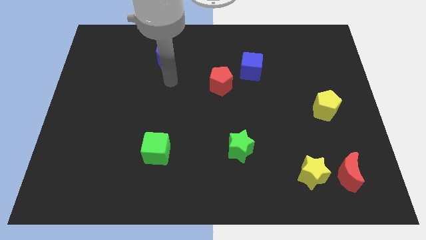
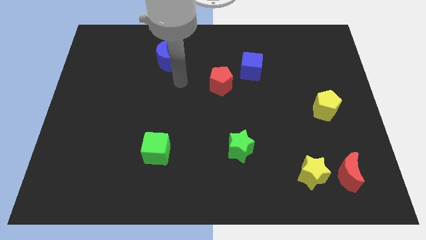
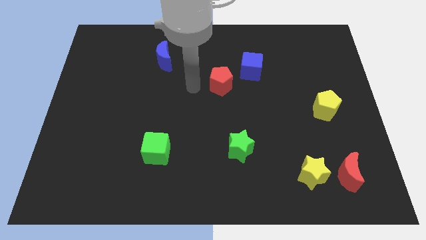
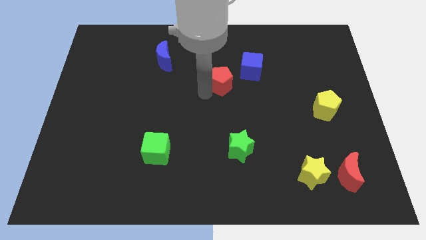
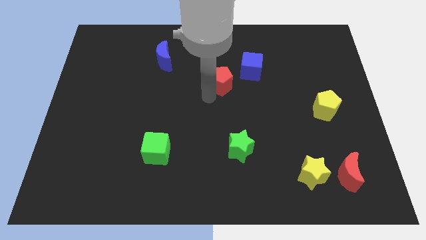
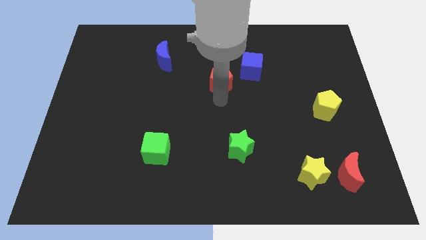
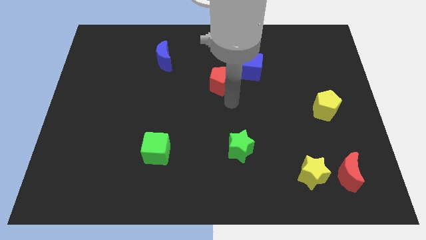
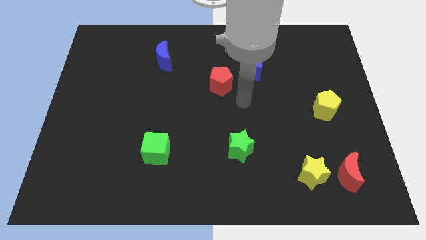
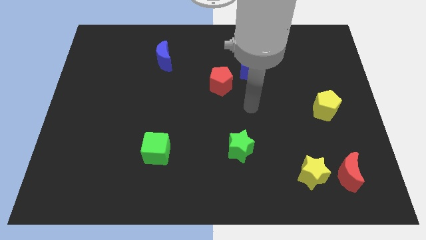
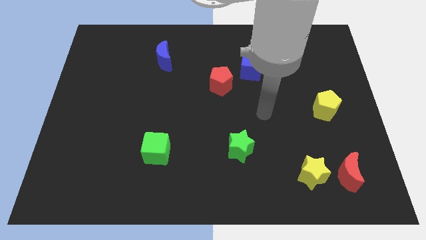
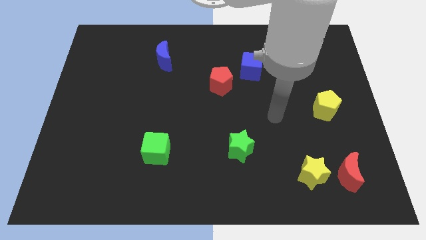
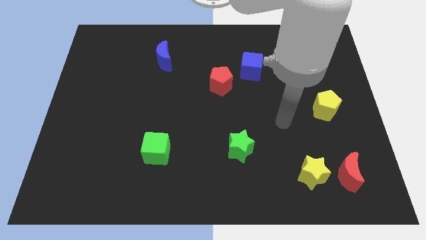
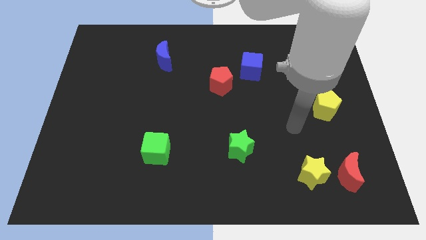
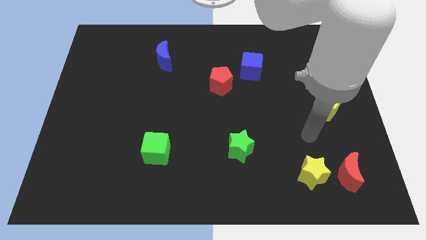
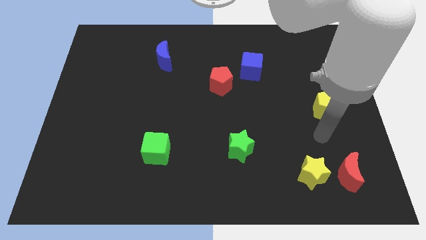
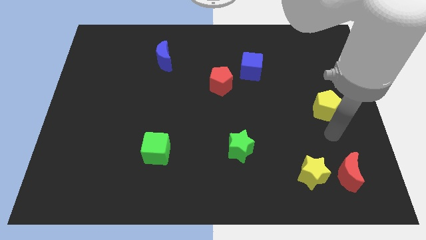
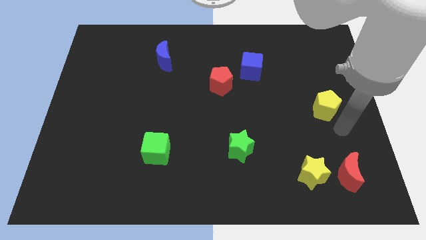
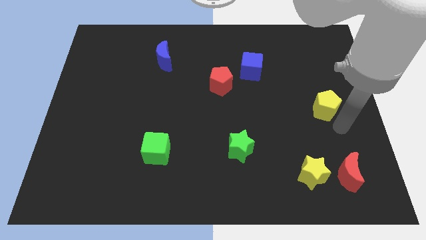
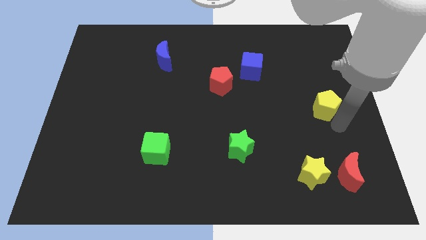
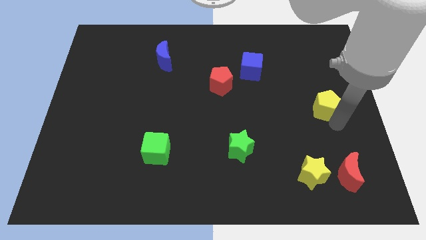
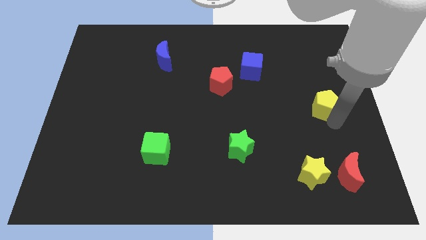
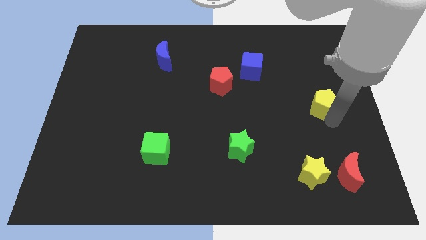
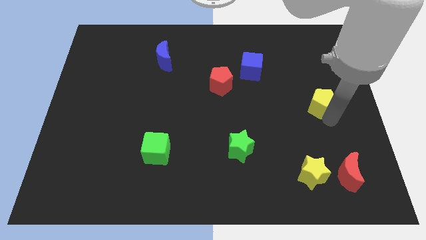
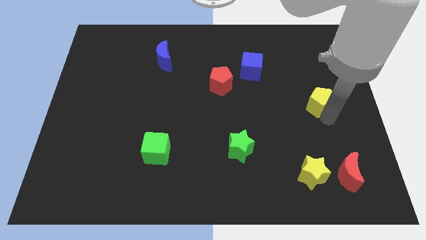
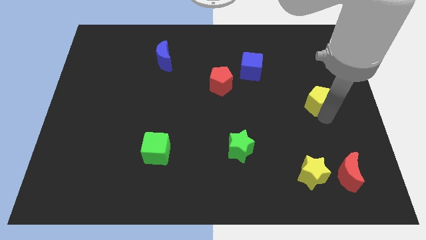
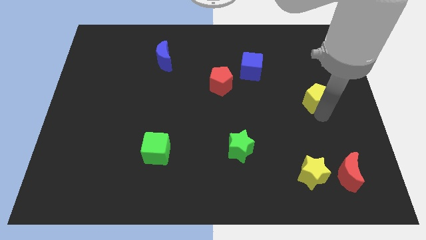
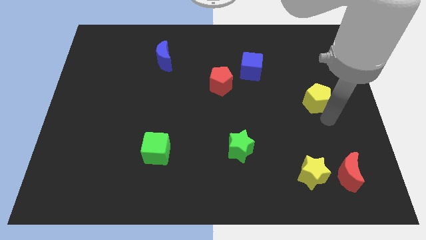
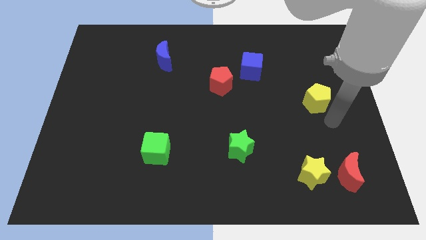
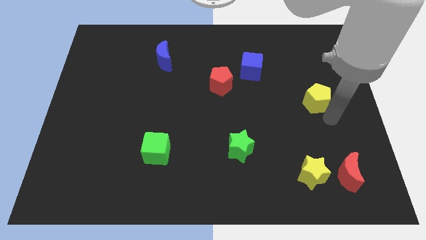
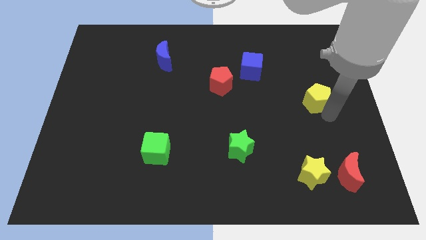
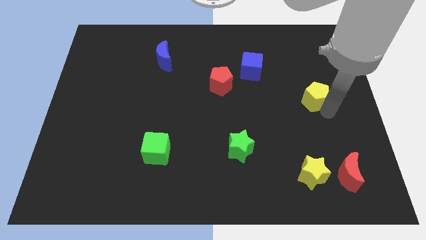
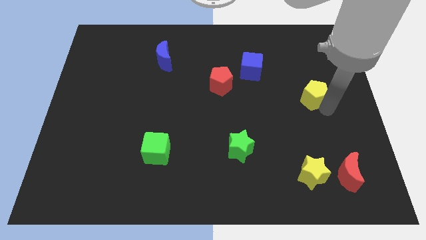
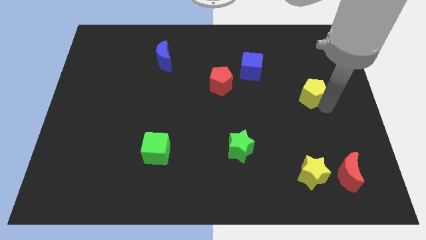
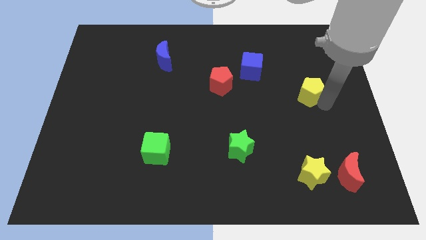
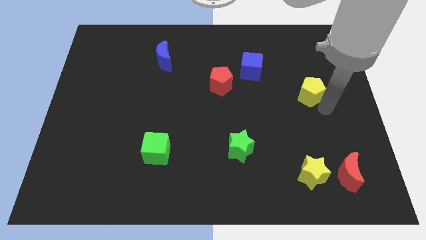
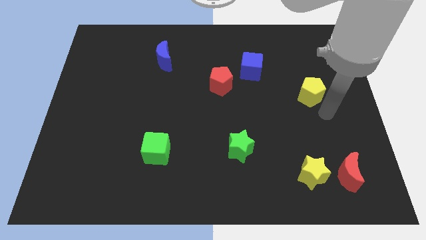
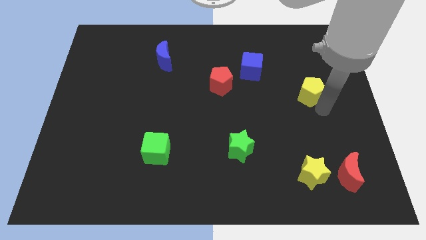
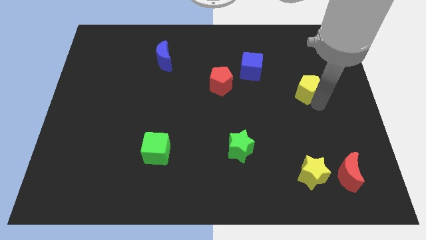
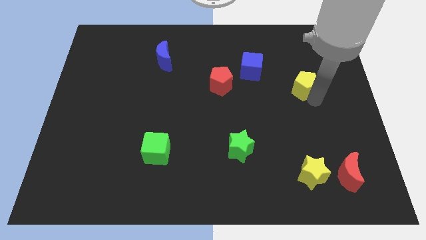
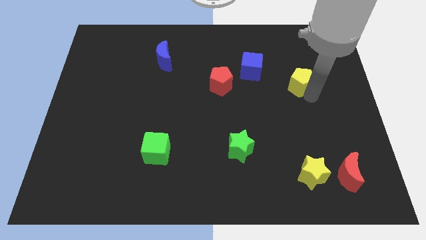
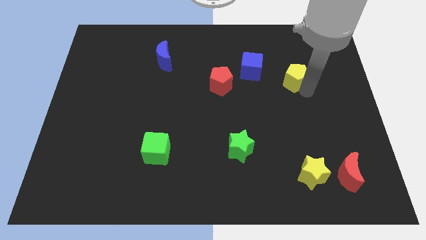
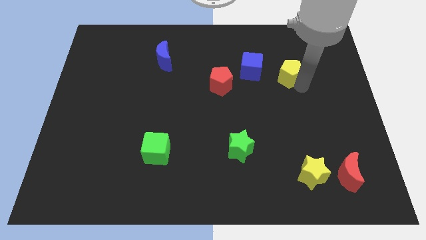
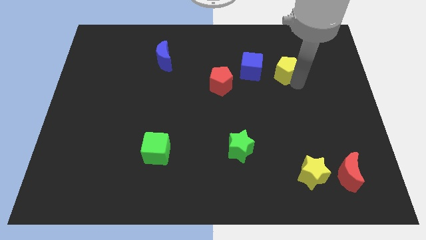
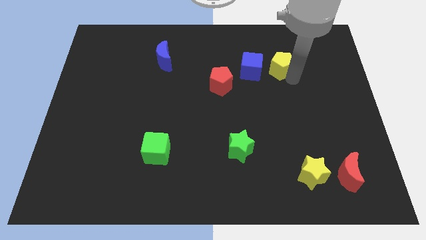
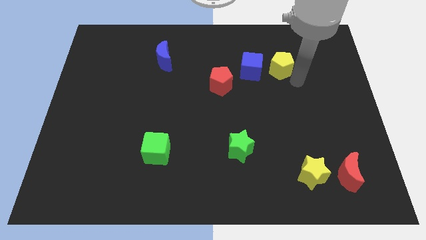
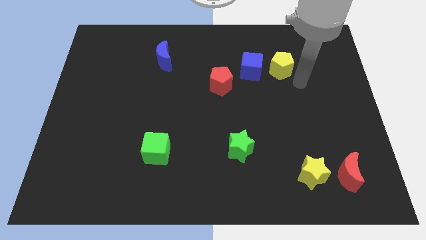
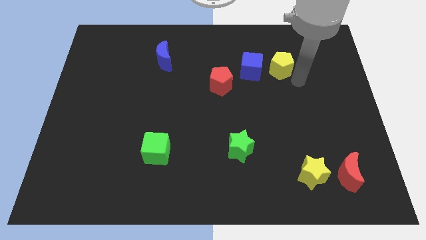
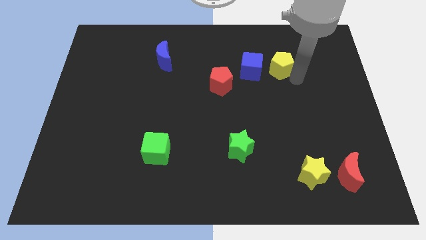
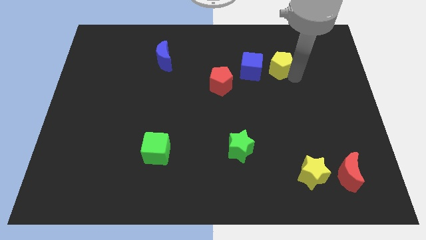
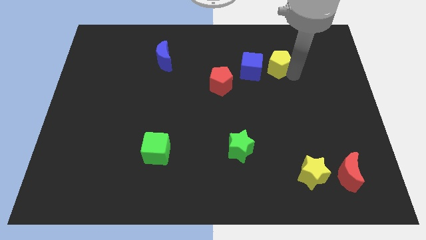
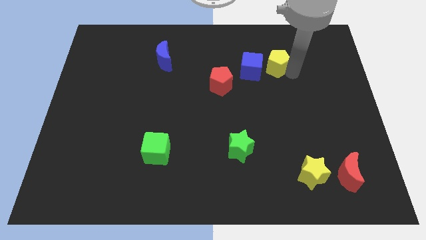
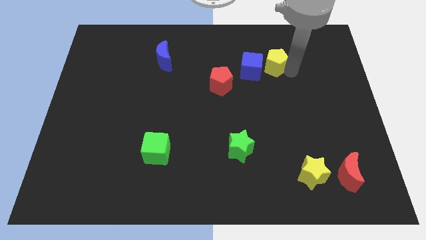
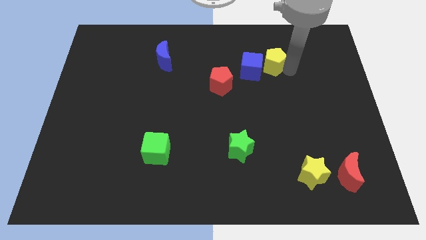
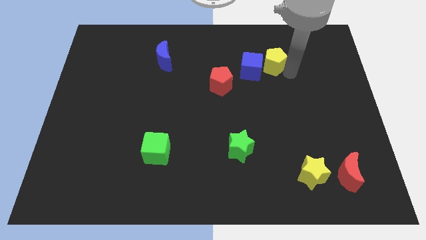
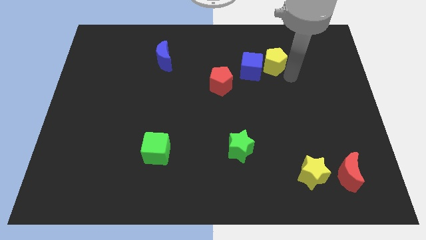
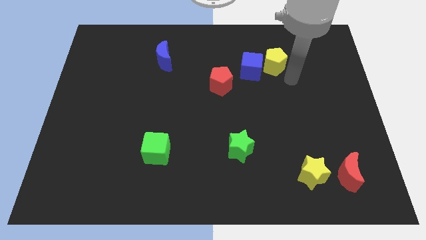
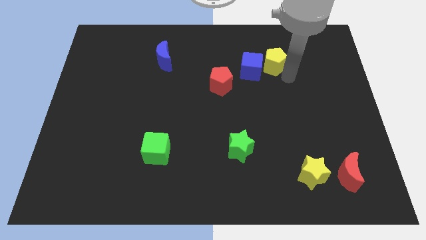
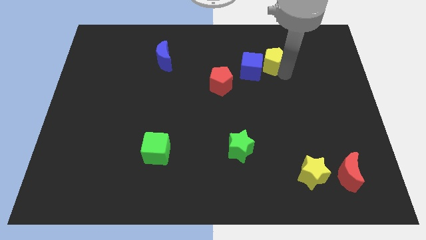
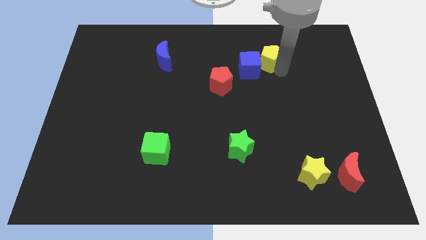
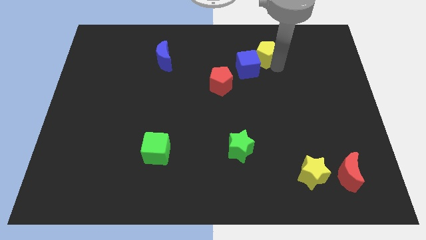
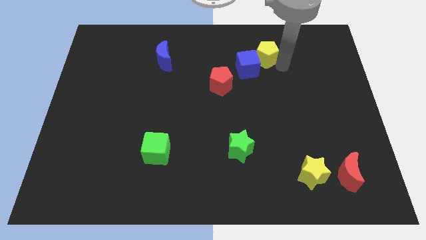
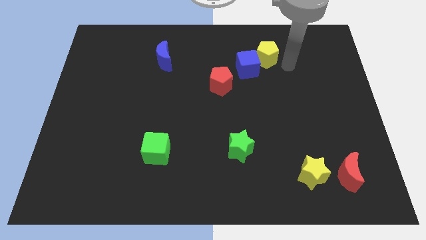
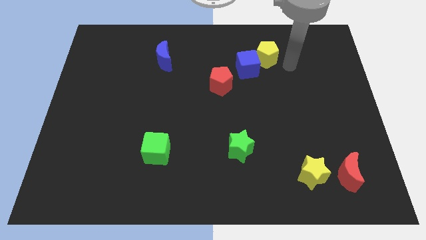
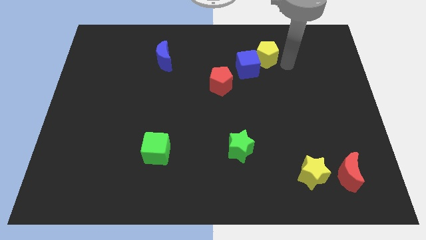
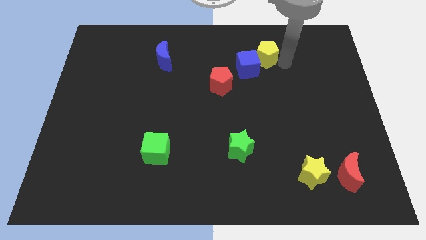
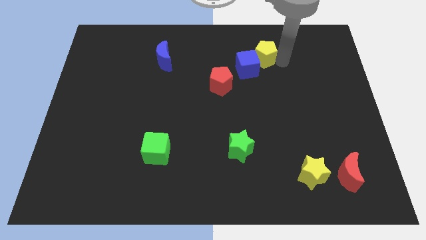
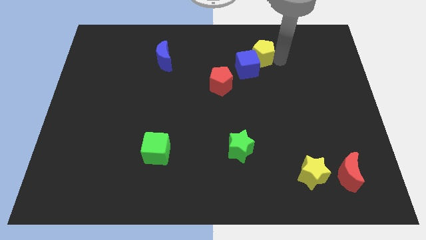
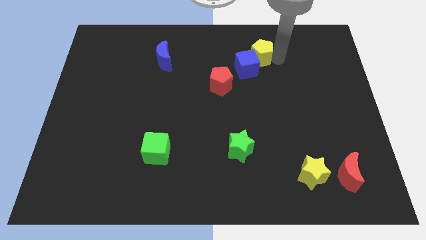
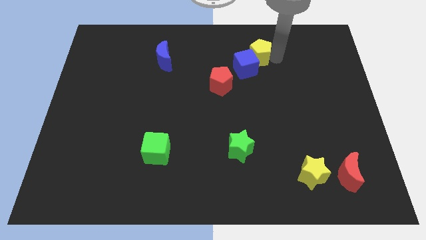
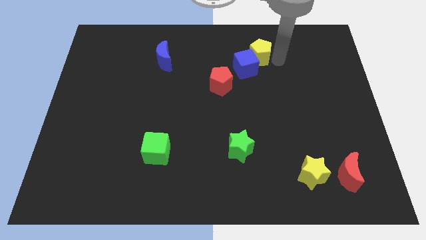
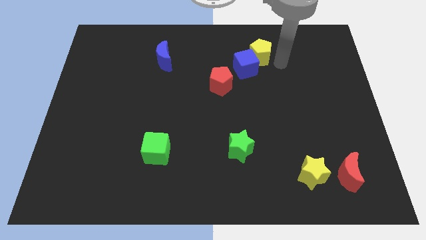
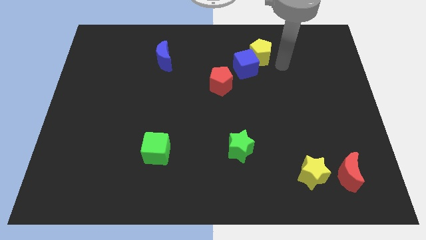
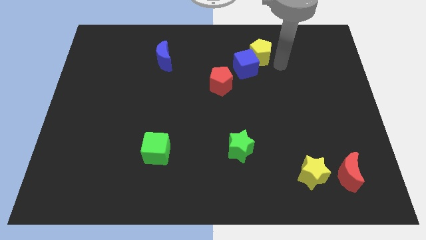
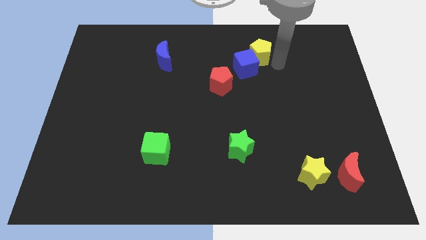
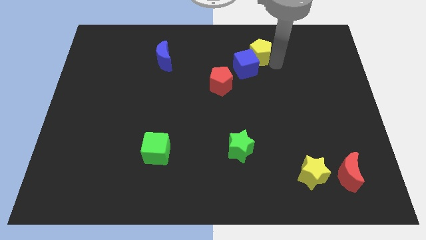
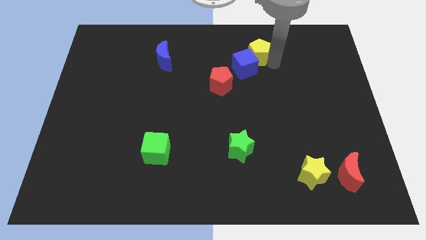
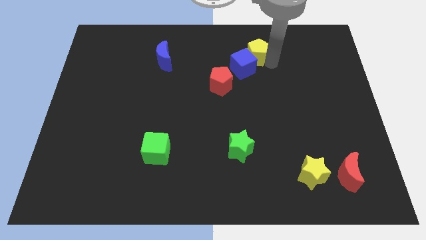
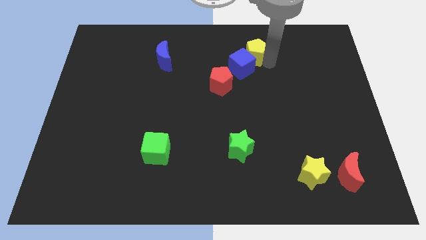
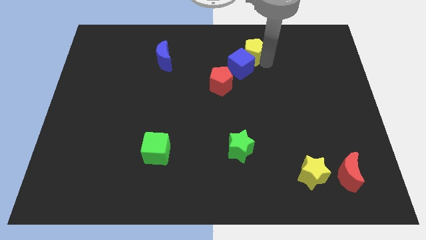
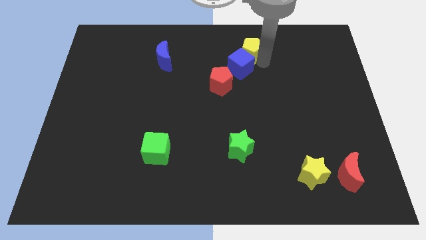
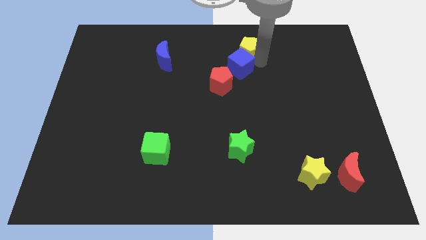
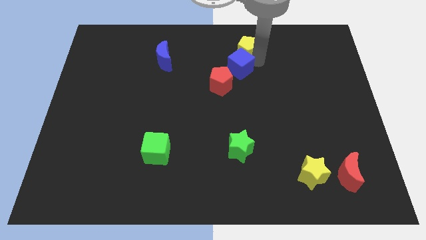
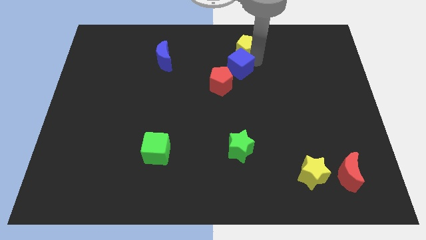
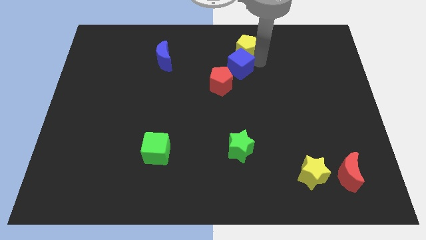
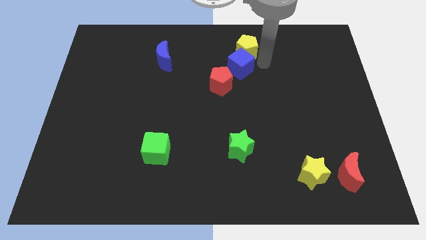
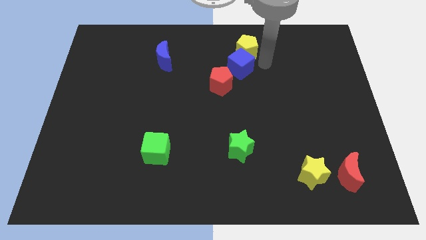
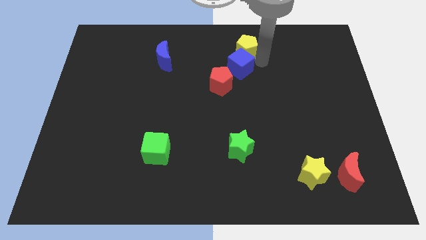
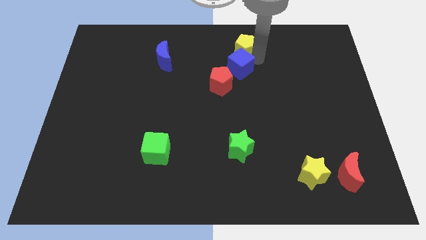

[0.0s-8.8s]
put the yellow pentagon to the top side
